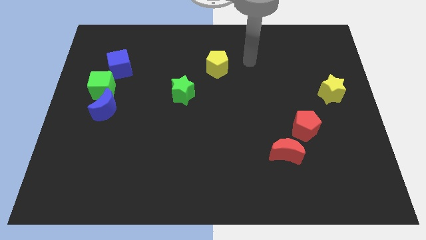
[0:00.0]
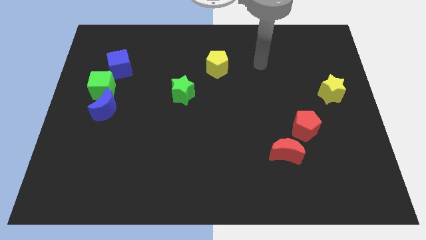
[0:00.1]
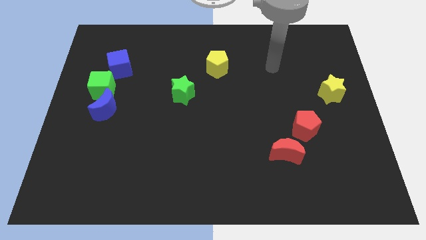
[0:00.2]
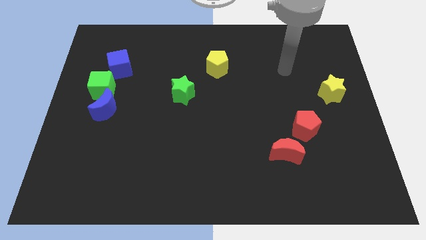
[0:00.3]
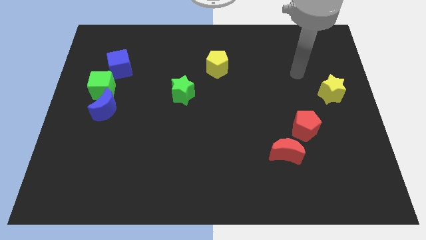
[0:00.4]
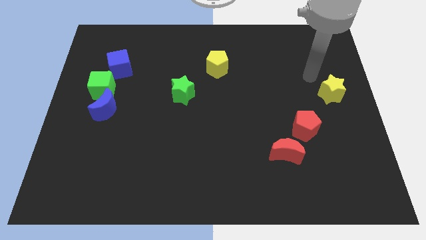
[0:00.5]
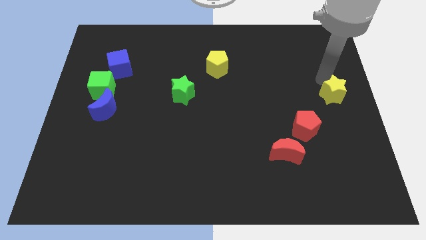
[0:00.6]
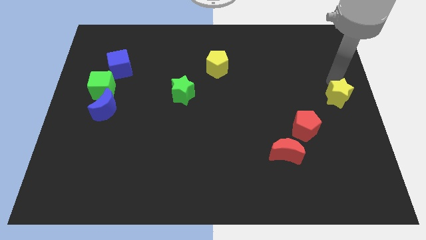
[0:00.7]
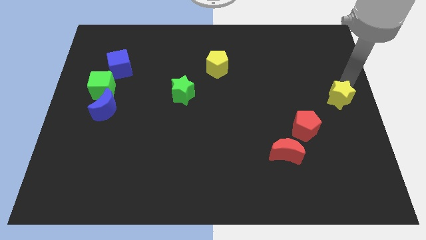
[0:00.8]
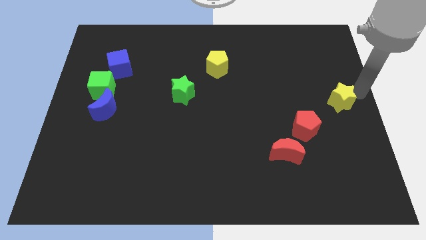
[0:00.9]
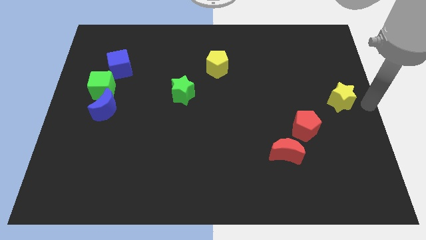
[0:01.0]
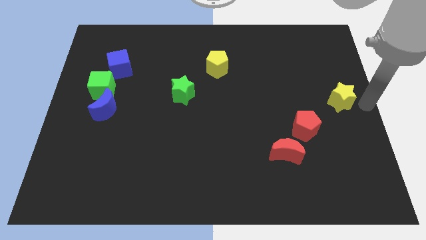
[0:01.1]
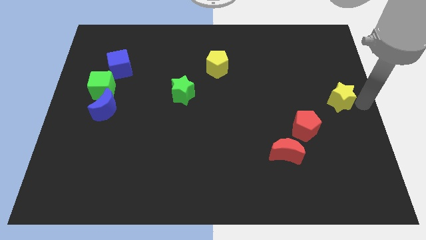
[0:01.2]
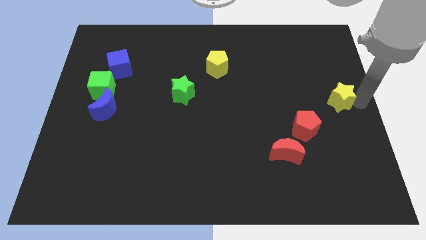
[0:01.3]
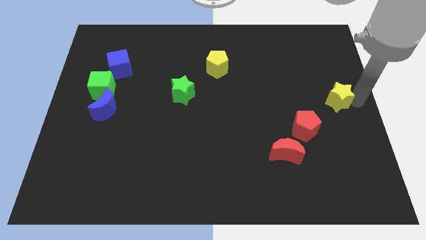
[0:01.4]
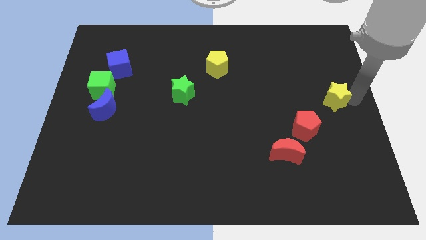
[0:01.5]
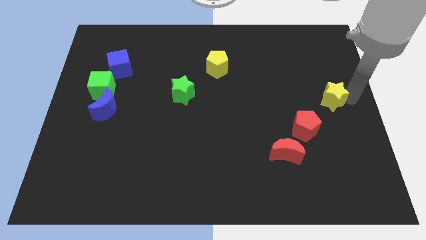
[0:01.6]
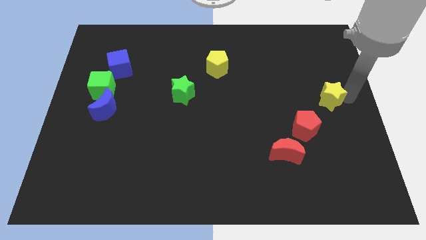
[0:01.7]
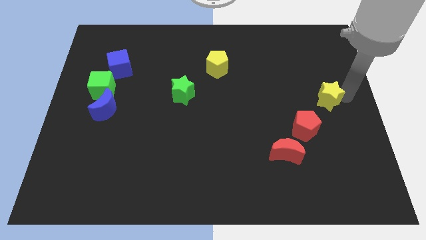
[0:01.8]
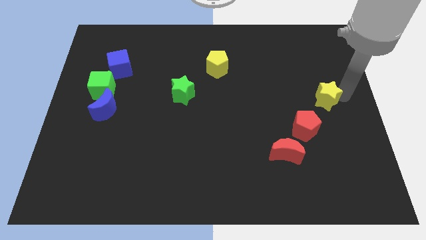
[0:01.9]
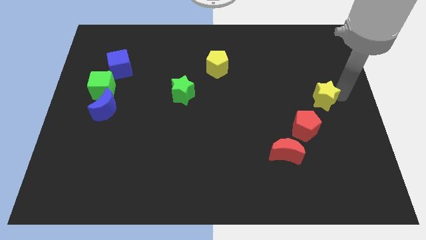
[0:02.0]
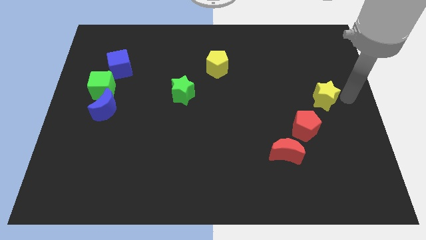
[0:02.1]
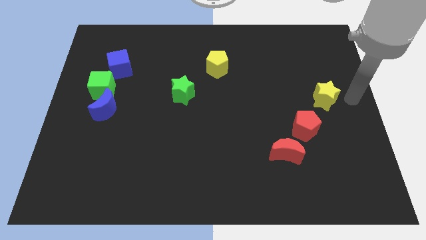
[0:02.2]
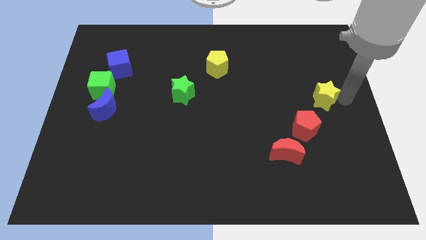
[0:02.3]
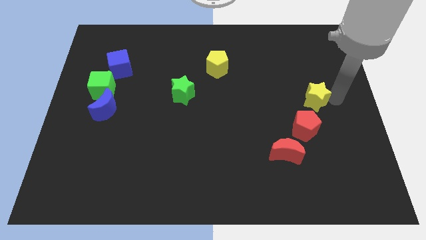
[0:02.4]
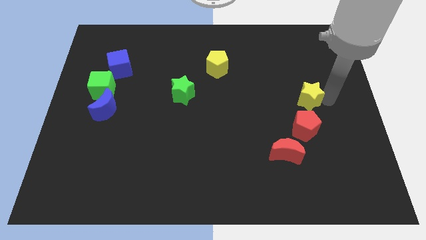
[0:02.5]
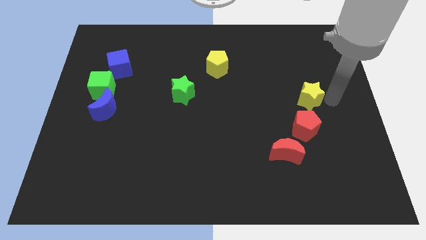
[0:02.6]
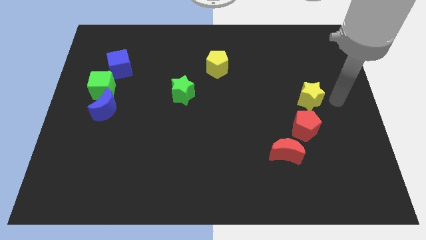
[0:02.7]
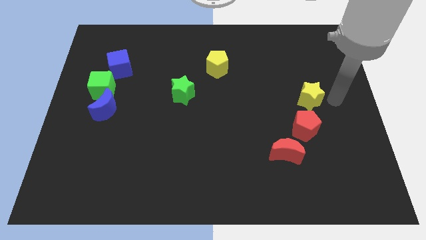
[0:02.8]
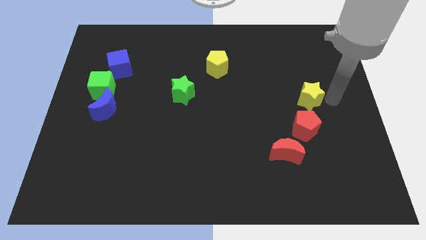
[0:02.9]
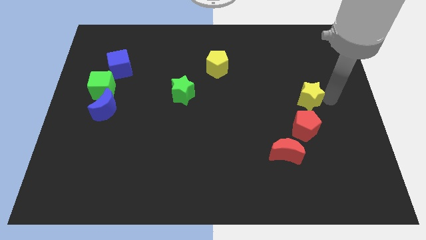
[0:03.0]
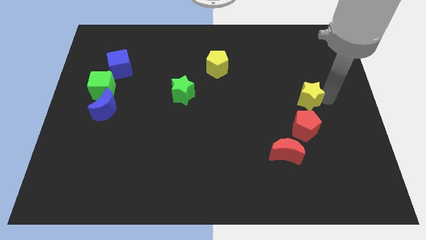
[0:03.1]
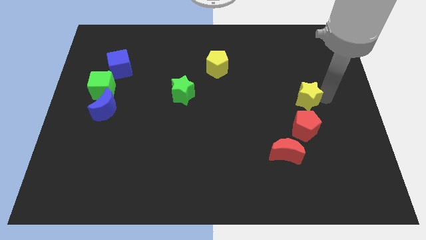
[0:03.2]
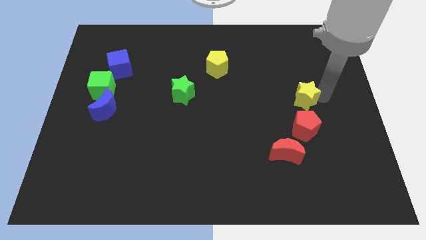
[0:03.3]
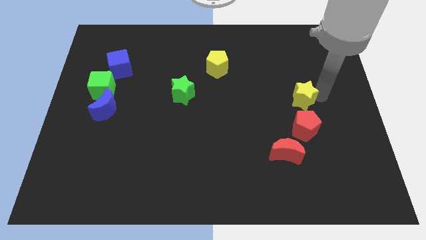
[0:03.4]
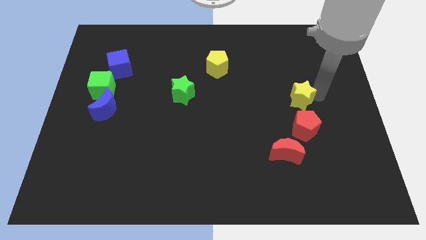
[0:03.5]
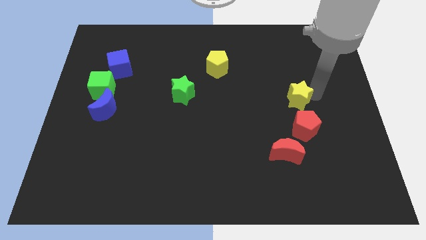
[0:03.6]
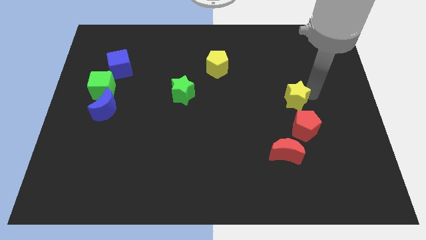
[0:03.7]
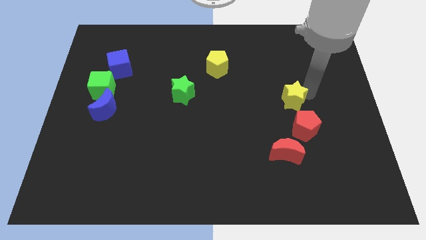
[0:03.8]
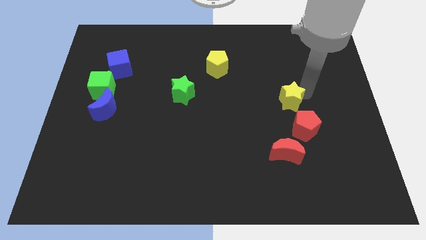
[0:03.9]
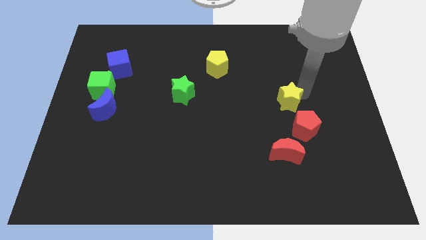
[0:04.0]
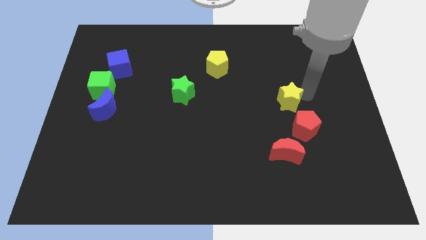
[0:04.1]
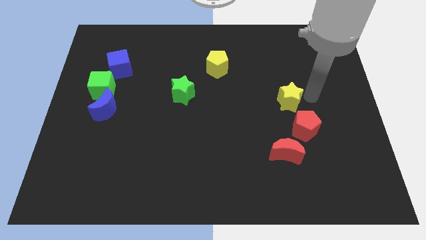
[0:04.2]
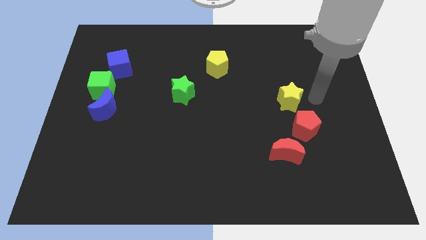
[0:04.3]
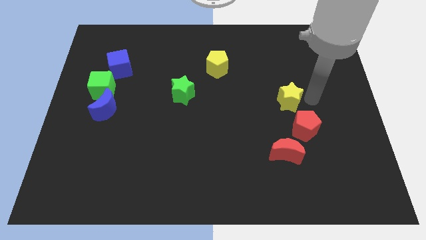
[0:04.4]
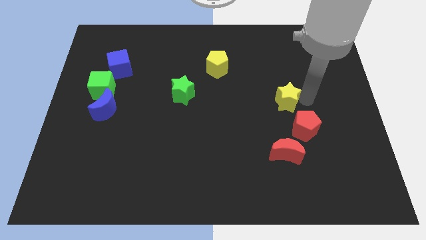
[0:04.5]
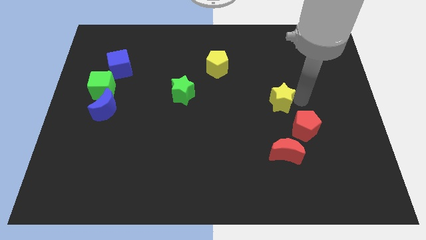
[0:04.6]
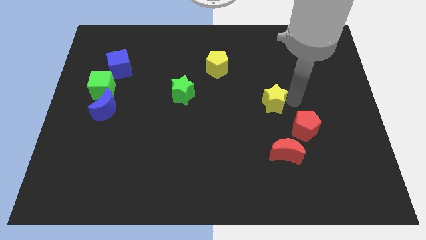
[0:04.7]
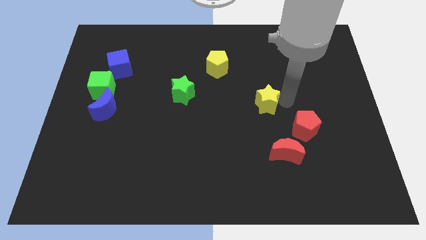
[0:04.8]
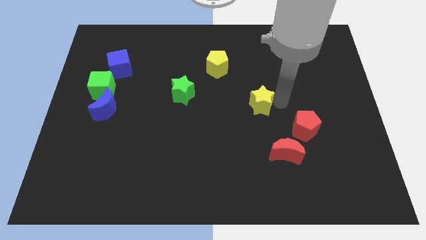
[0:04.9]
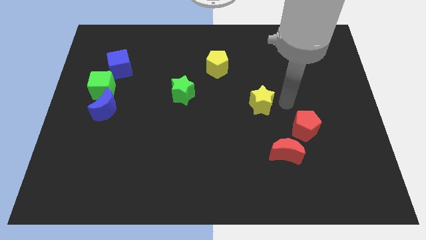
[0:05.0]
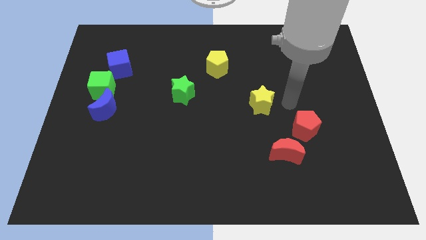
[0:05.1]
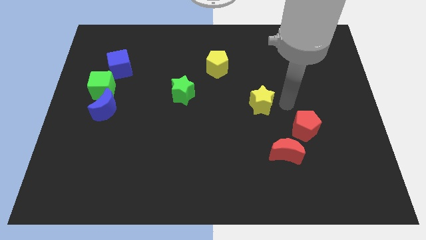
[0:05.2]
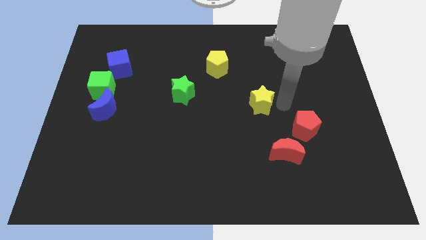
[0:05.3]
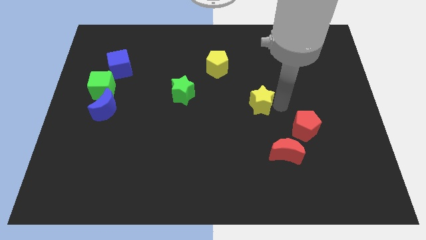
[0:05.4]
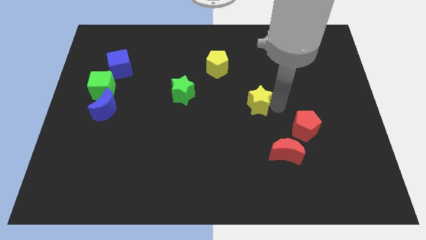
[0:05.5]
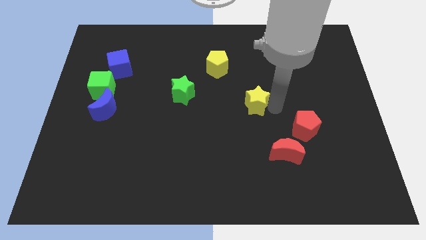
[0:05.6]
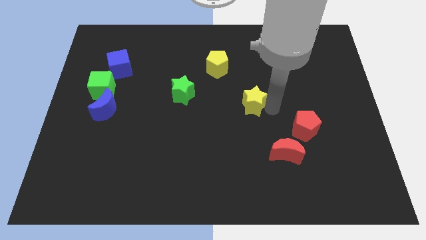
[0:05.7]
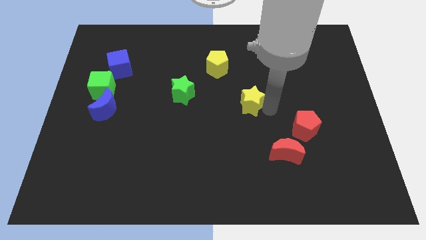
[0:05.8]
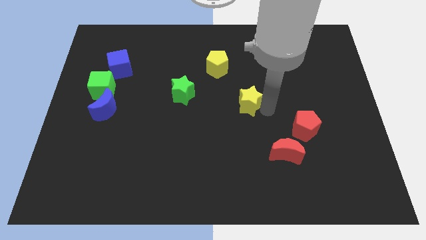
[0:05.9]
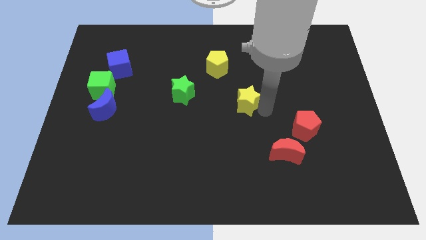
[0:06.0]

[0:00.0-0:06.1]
push the yellow star left

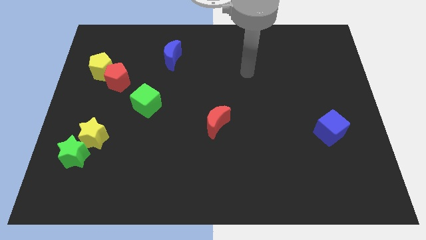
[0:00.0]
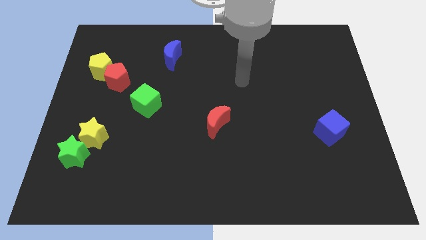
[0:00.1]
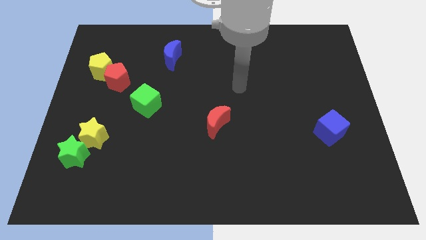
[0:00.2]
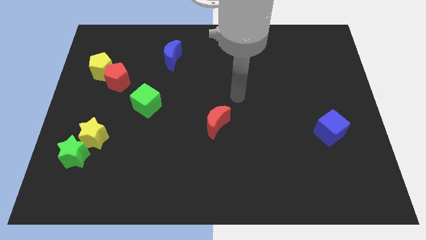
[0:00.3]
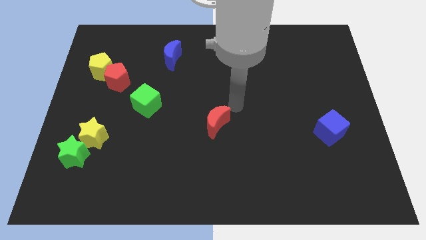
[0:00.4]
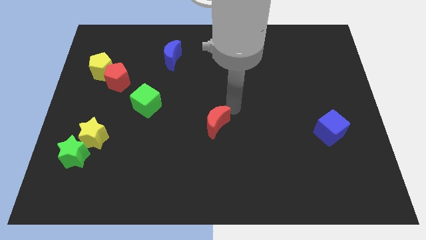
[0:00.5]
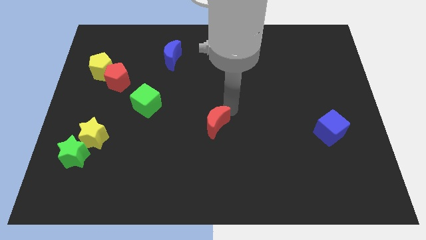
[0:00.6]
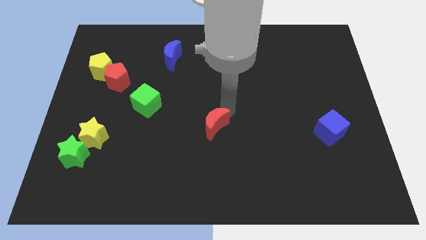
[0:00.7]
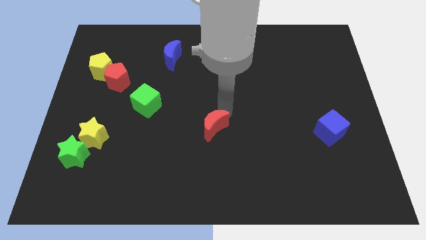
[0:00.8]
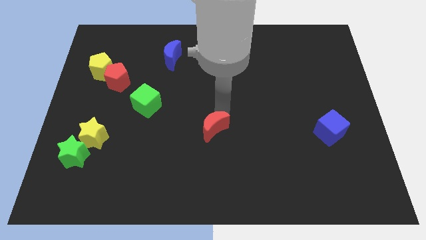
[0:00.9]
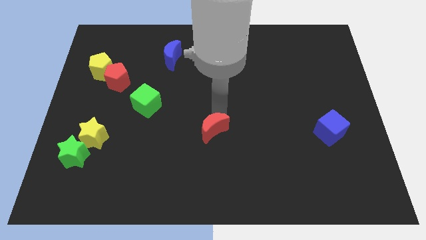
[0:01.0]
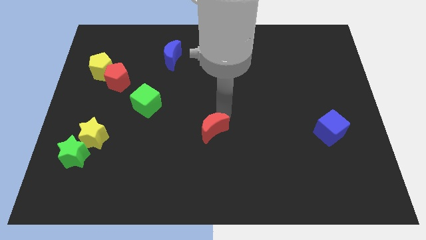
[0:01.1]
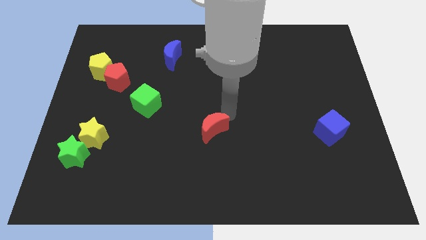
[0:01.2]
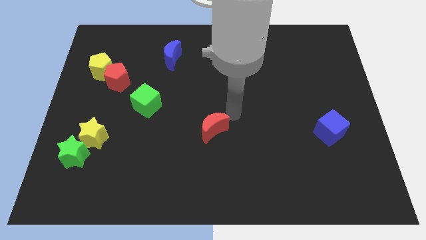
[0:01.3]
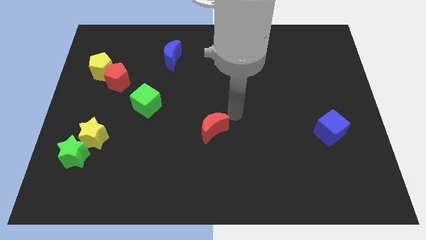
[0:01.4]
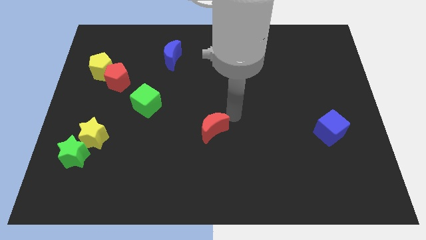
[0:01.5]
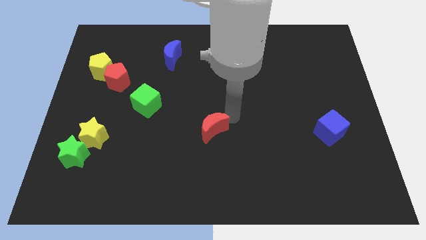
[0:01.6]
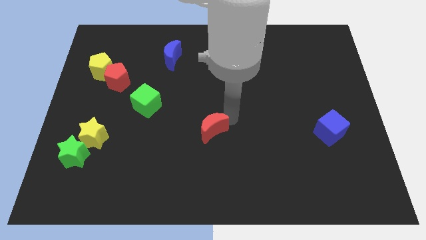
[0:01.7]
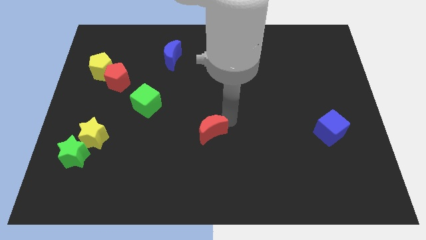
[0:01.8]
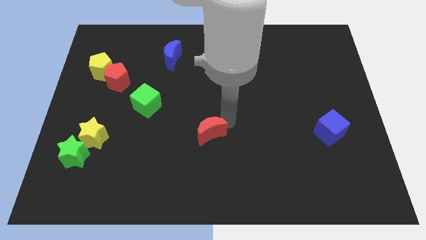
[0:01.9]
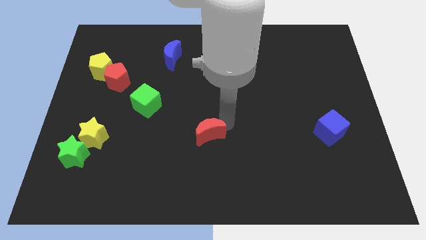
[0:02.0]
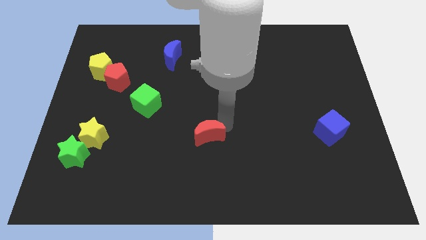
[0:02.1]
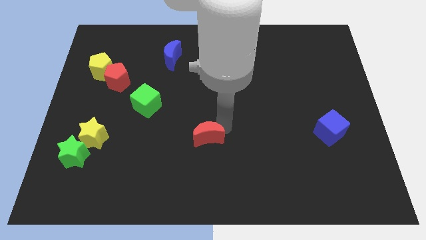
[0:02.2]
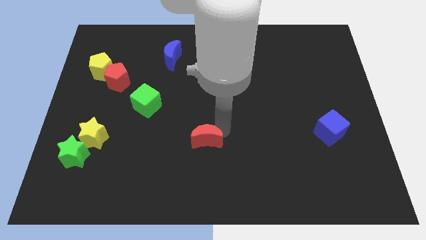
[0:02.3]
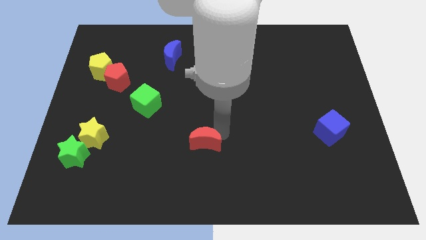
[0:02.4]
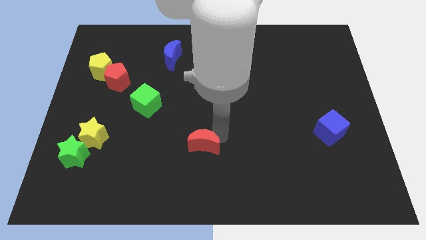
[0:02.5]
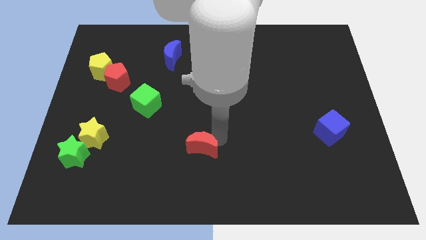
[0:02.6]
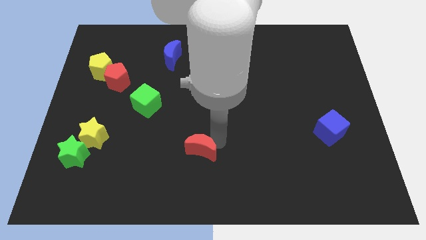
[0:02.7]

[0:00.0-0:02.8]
move the red moon somewhat diagonally downwards and left
